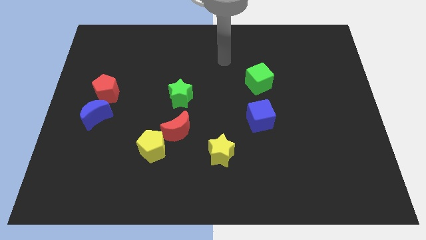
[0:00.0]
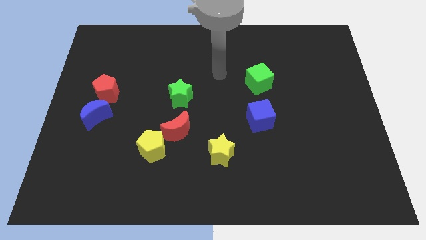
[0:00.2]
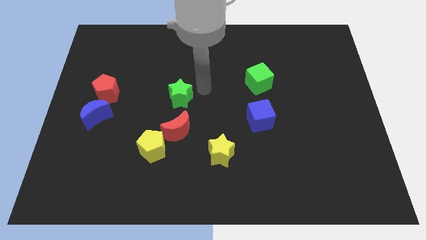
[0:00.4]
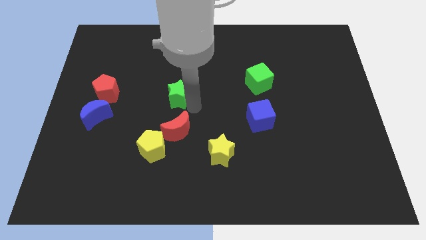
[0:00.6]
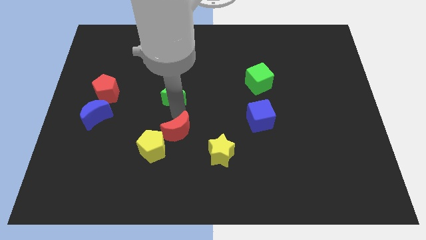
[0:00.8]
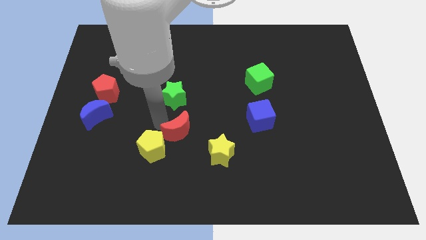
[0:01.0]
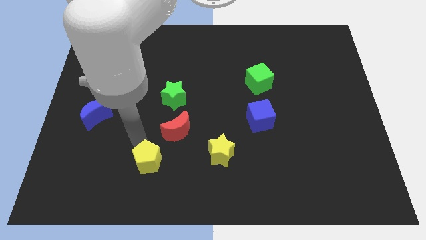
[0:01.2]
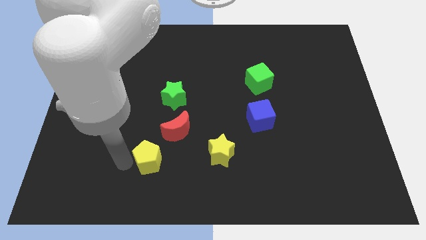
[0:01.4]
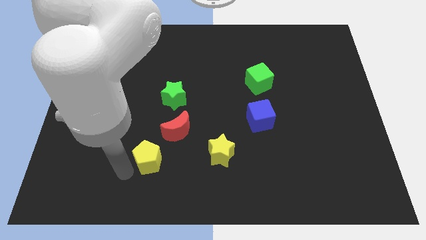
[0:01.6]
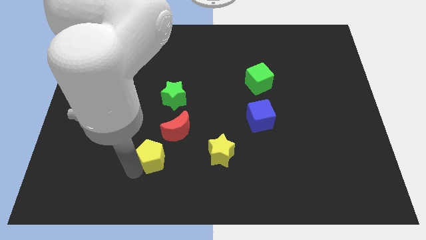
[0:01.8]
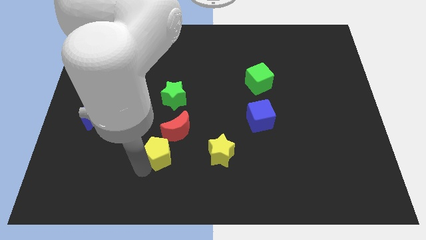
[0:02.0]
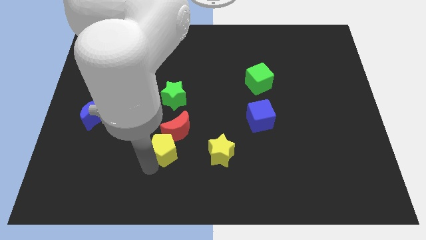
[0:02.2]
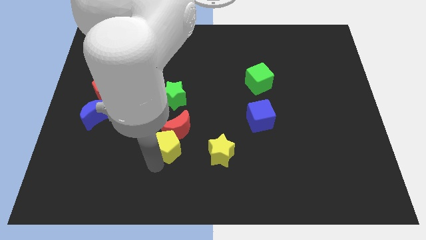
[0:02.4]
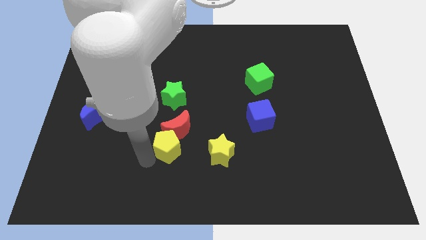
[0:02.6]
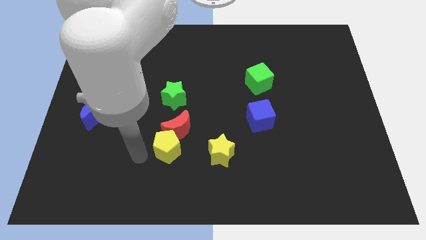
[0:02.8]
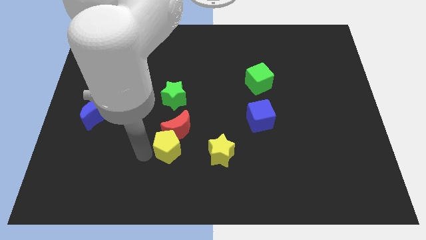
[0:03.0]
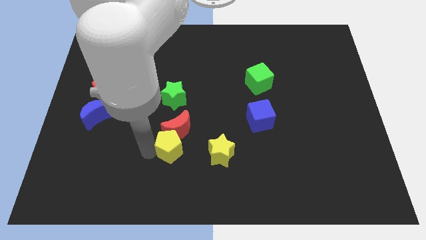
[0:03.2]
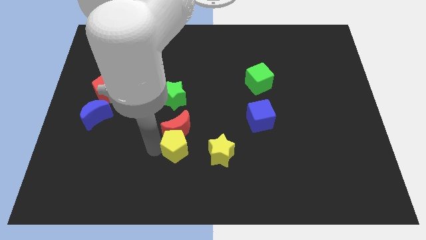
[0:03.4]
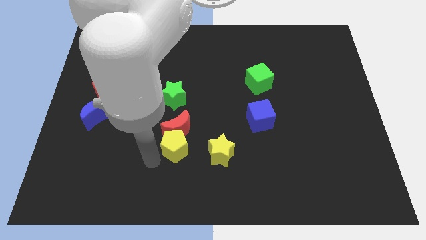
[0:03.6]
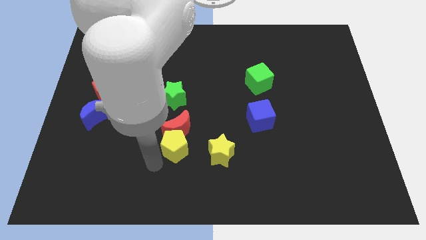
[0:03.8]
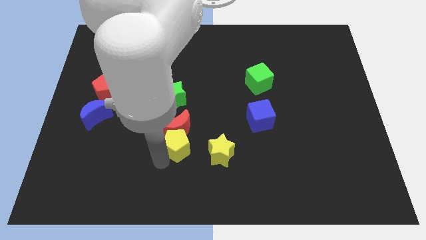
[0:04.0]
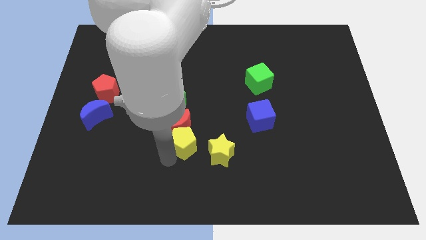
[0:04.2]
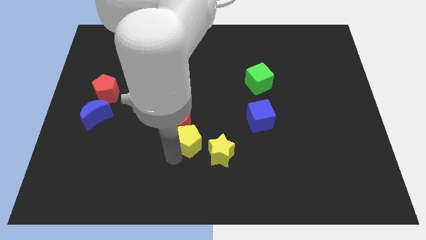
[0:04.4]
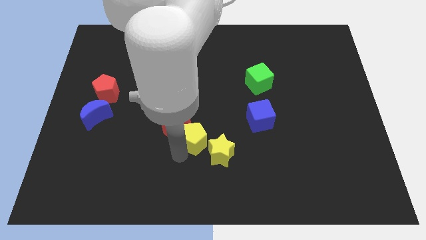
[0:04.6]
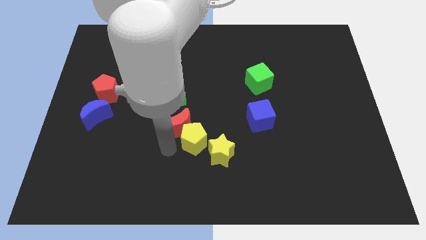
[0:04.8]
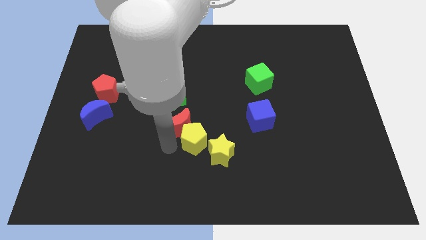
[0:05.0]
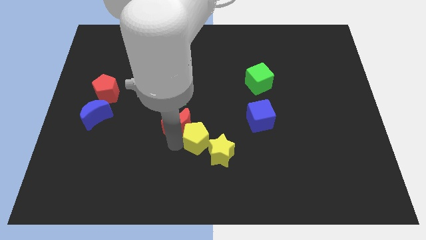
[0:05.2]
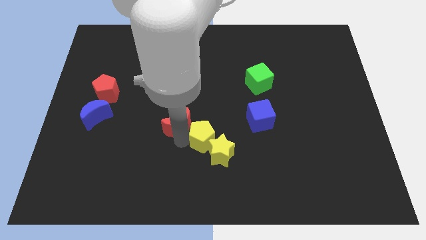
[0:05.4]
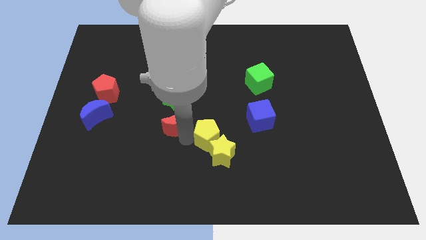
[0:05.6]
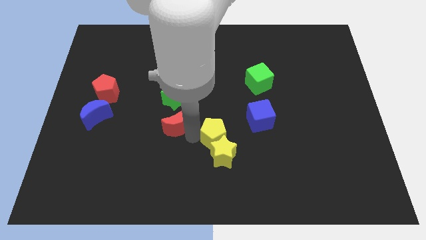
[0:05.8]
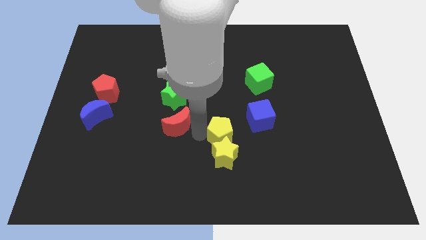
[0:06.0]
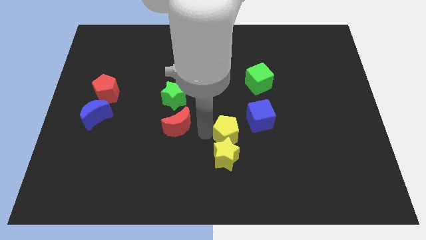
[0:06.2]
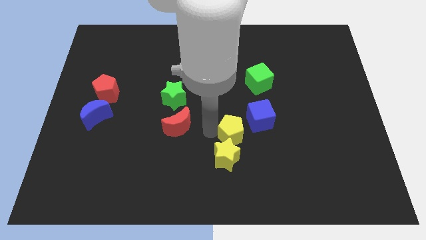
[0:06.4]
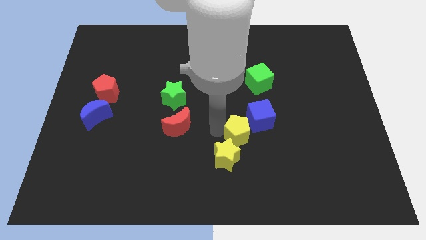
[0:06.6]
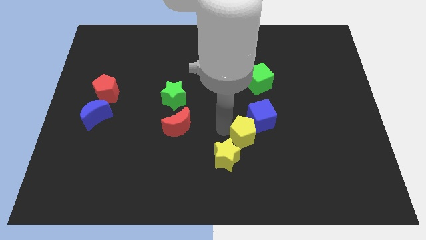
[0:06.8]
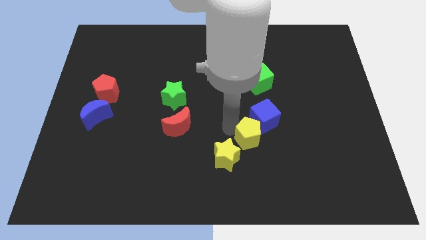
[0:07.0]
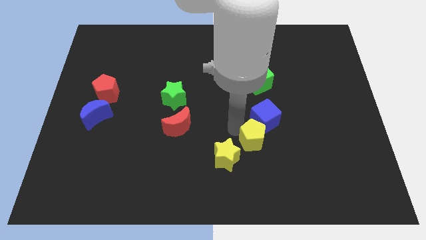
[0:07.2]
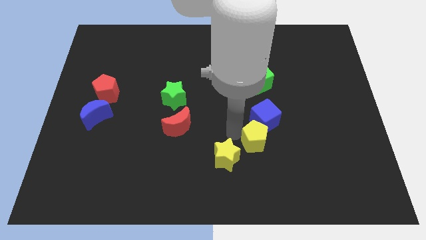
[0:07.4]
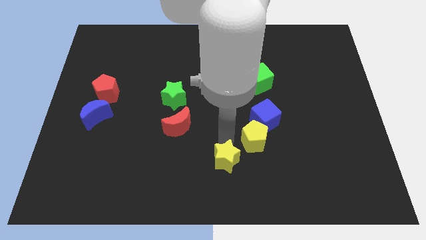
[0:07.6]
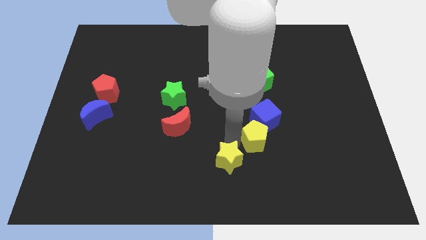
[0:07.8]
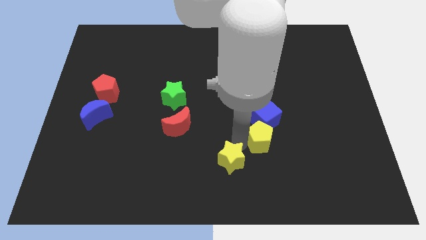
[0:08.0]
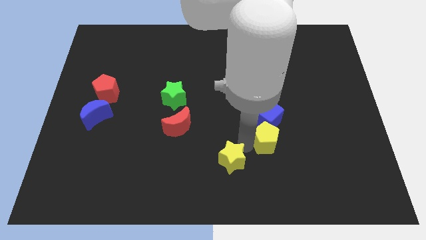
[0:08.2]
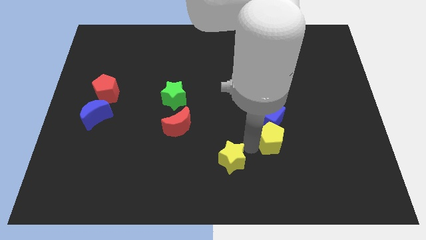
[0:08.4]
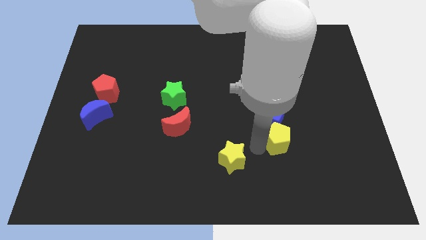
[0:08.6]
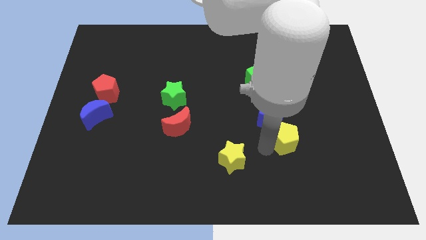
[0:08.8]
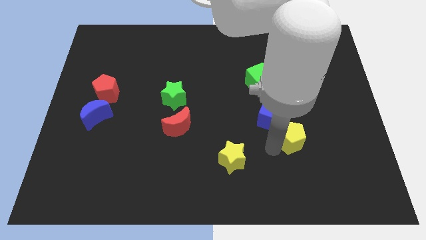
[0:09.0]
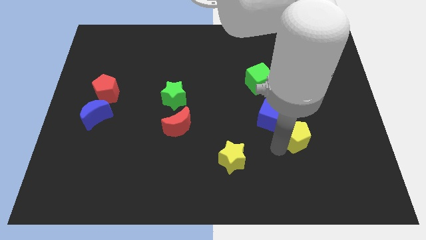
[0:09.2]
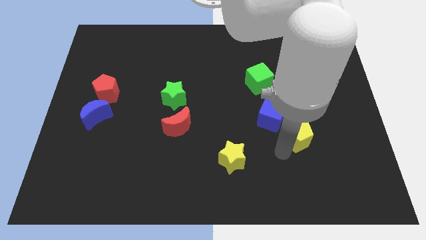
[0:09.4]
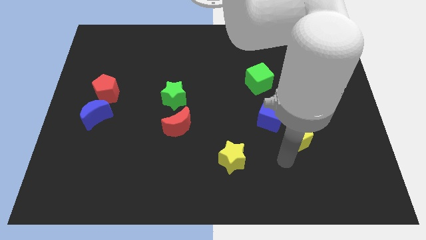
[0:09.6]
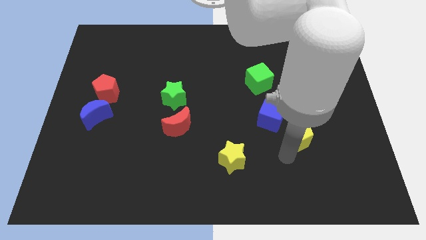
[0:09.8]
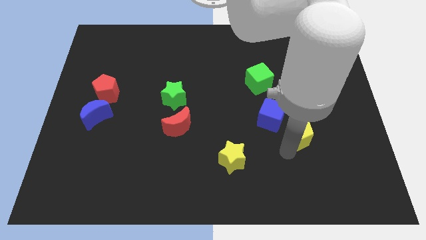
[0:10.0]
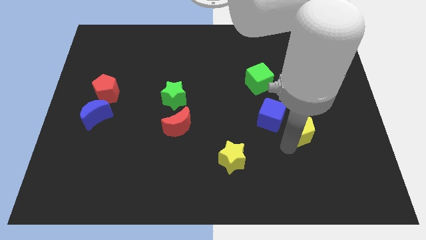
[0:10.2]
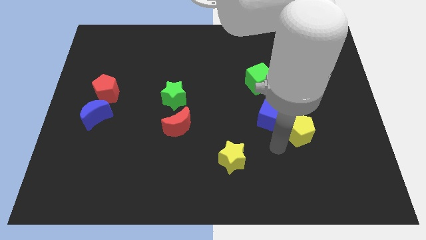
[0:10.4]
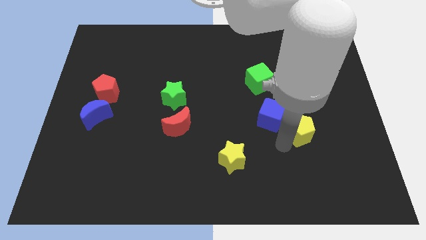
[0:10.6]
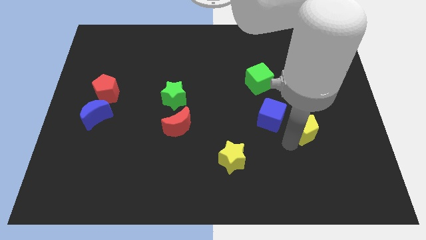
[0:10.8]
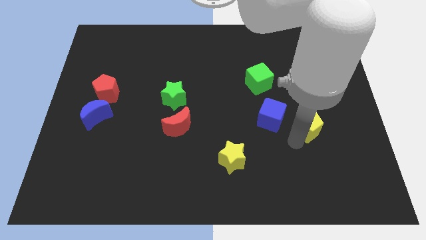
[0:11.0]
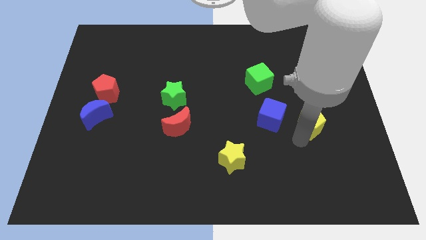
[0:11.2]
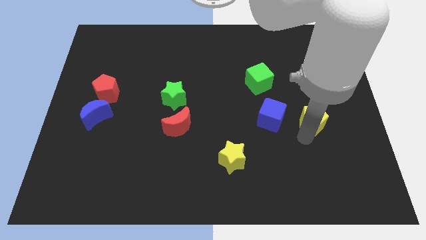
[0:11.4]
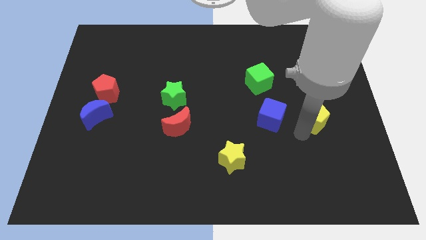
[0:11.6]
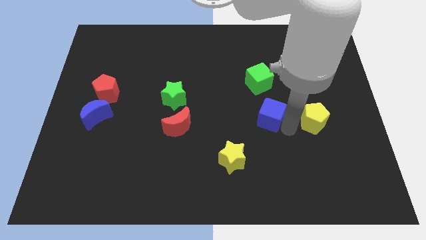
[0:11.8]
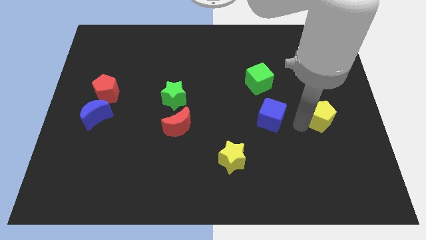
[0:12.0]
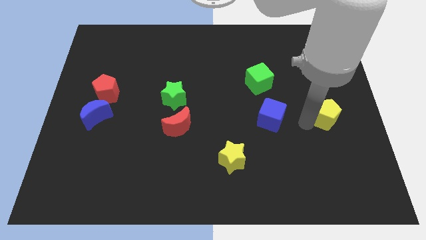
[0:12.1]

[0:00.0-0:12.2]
slide the yellow pentagon to the center right

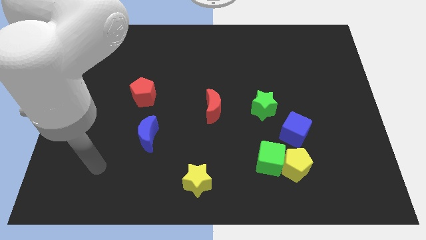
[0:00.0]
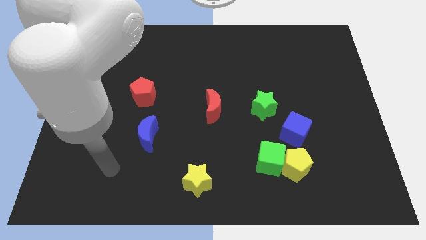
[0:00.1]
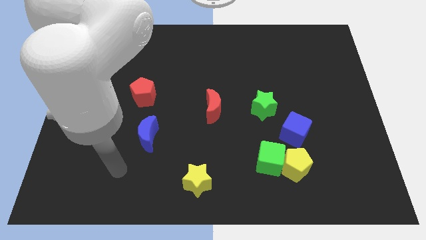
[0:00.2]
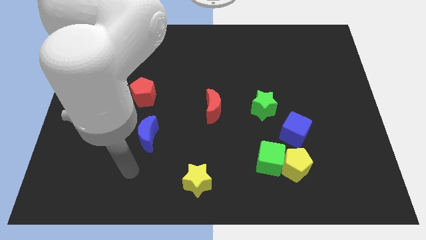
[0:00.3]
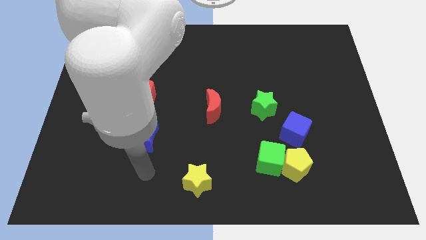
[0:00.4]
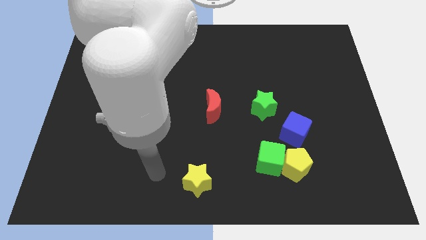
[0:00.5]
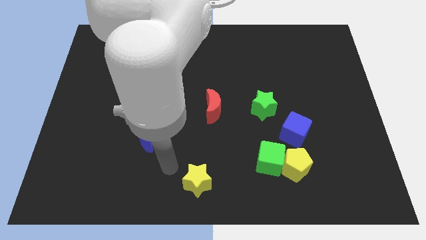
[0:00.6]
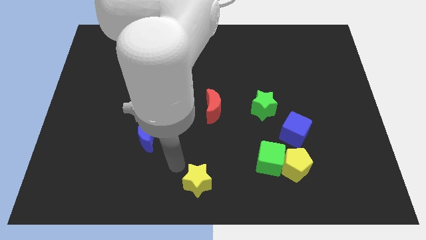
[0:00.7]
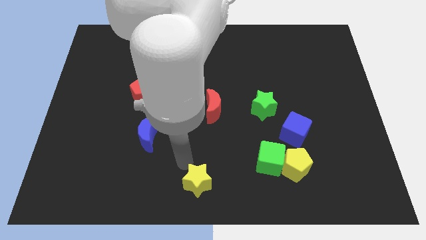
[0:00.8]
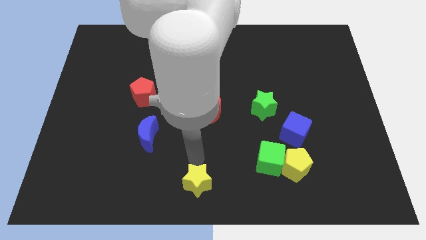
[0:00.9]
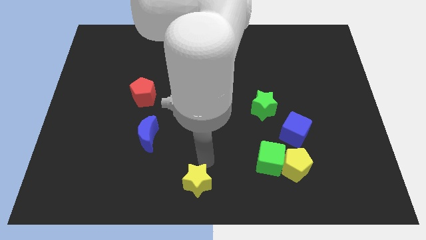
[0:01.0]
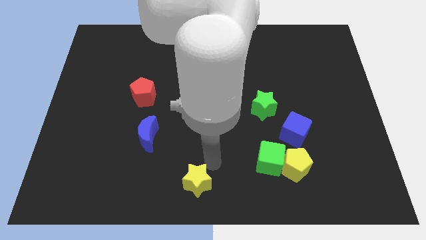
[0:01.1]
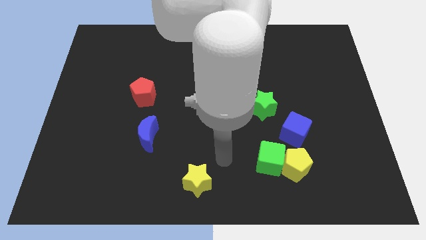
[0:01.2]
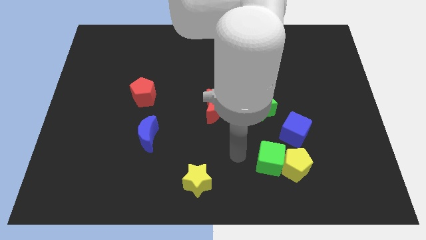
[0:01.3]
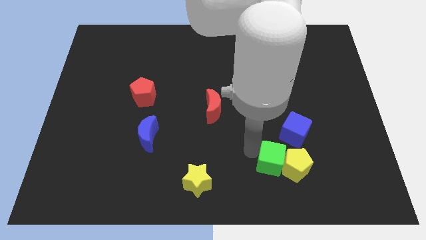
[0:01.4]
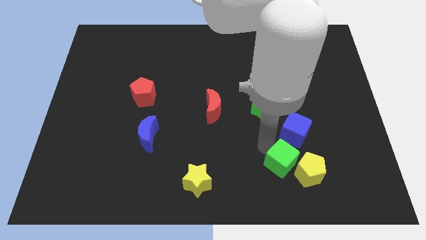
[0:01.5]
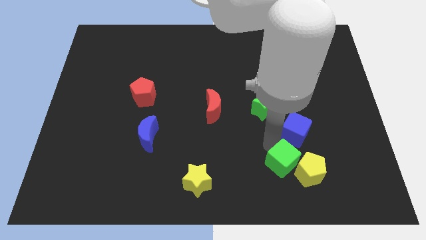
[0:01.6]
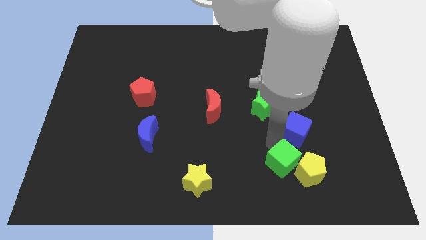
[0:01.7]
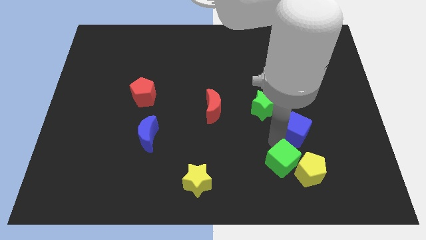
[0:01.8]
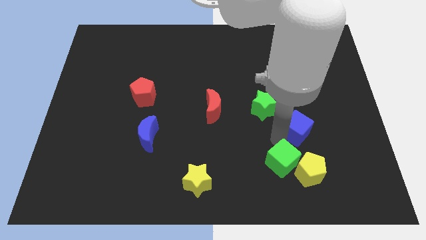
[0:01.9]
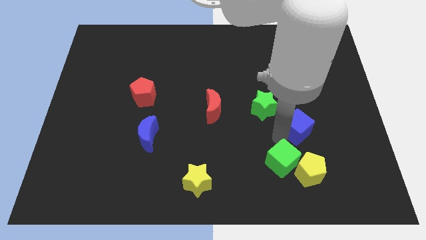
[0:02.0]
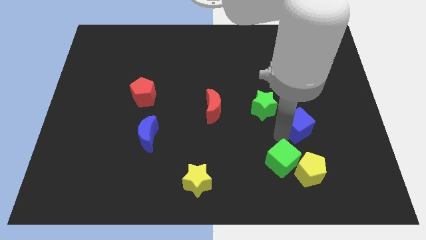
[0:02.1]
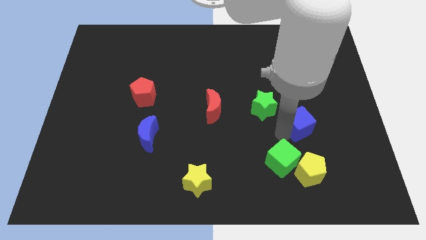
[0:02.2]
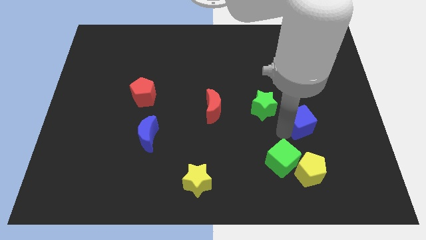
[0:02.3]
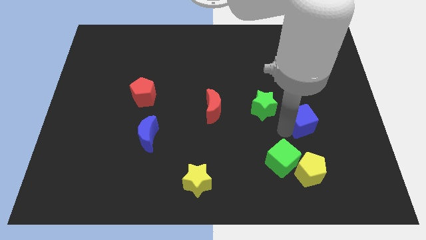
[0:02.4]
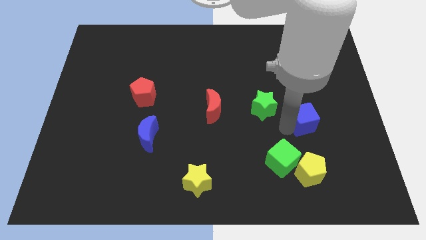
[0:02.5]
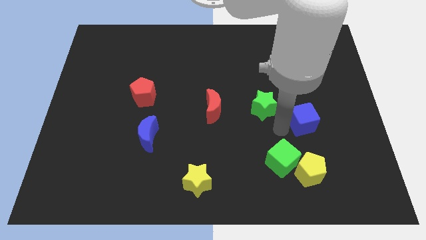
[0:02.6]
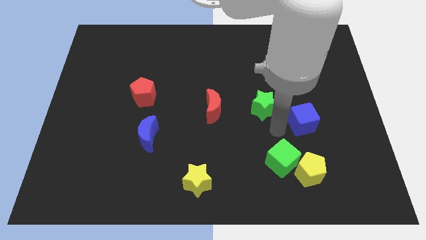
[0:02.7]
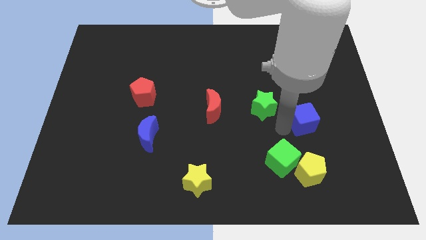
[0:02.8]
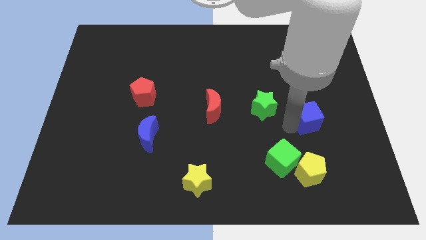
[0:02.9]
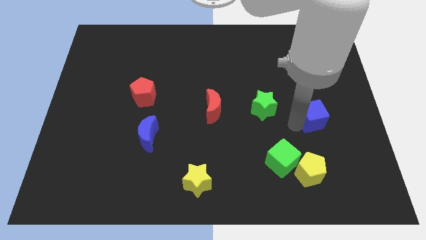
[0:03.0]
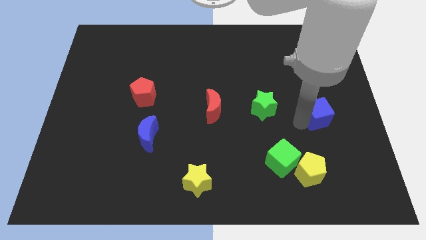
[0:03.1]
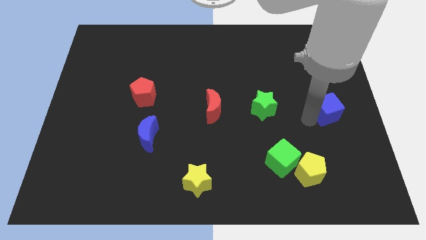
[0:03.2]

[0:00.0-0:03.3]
move the blue cube to the center right
